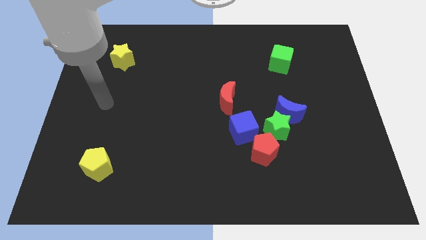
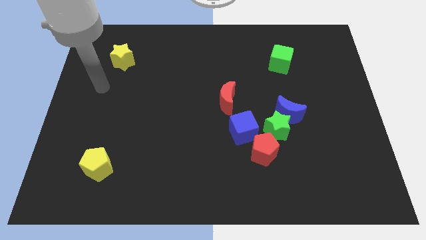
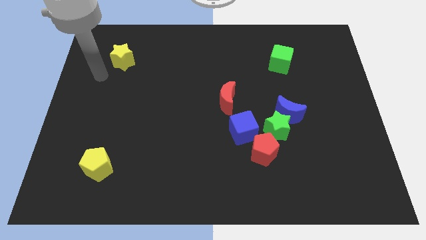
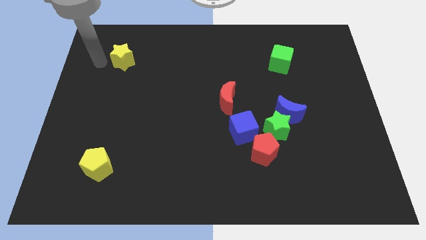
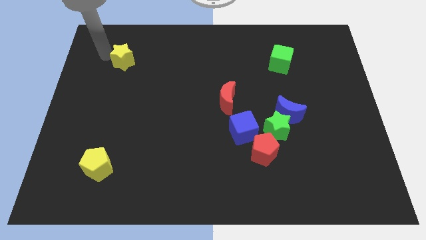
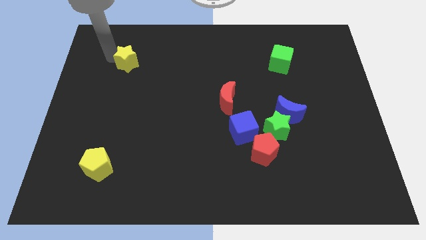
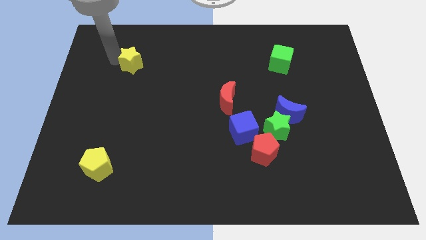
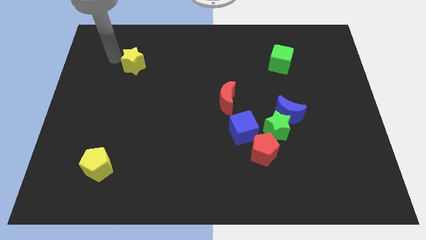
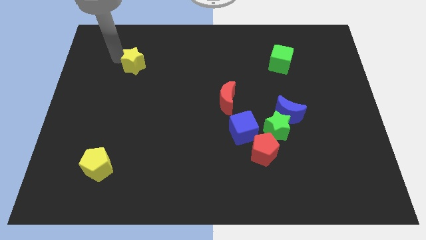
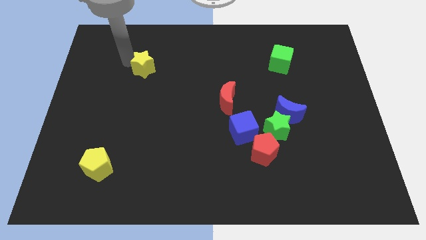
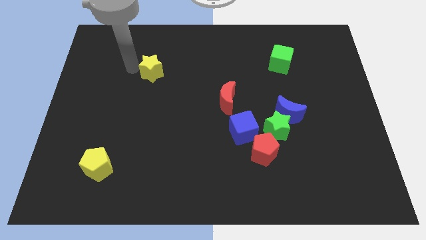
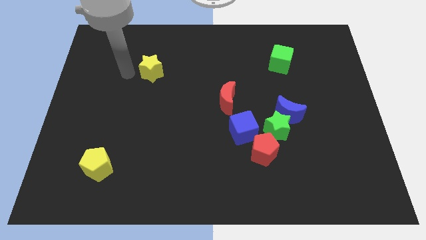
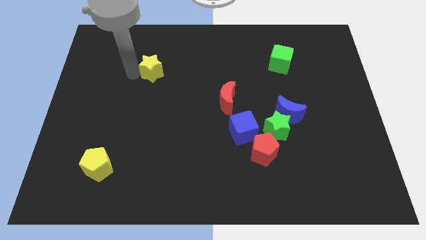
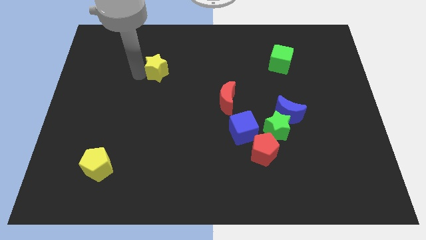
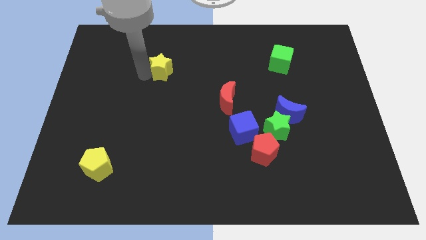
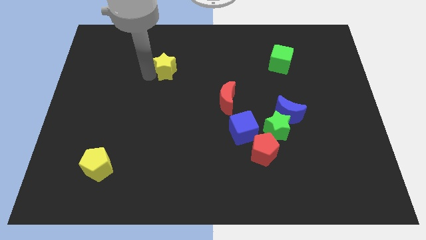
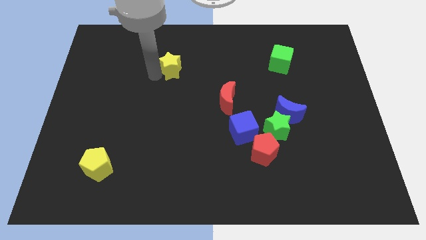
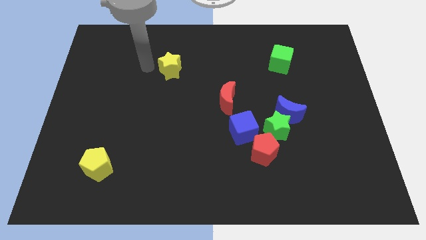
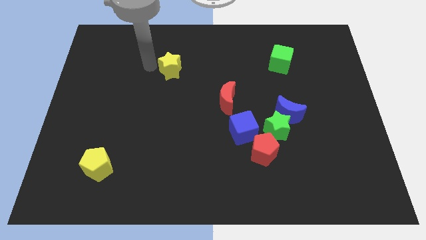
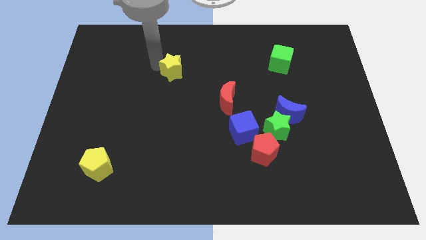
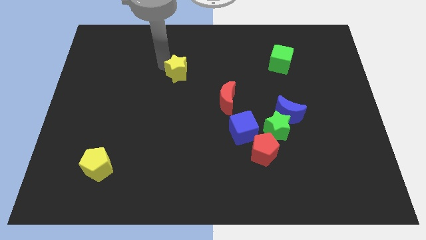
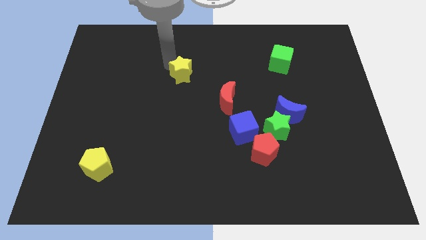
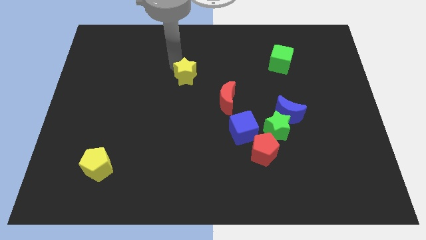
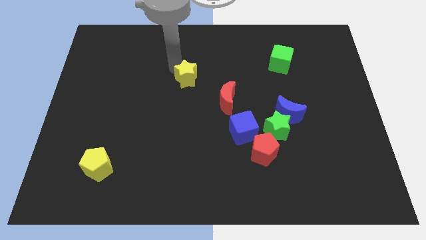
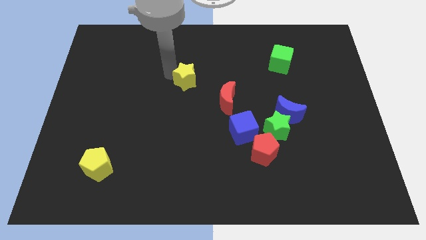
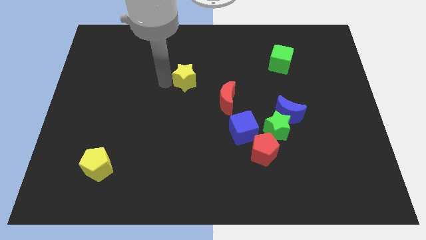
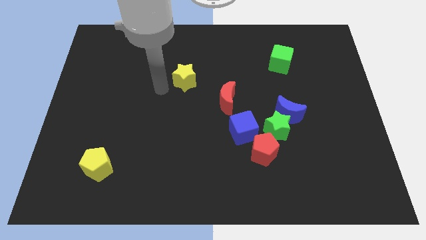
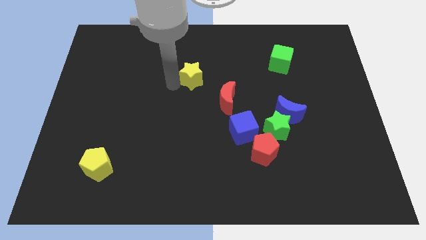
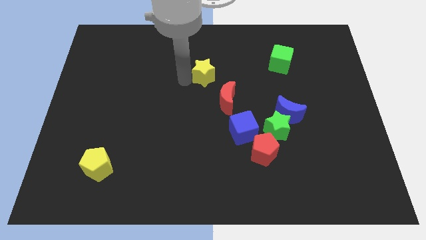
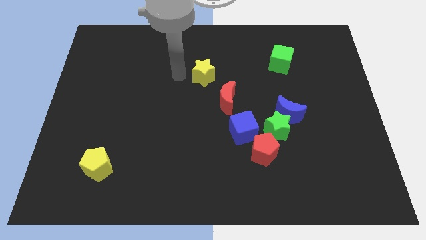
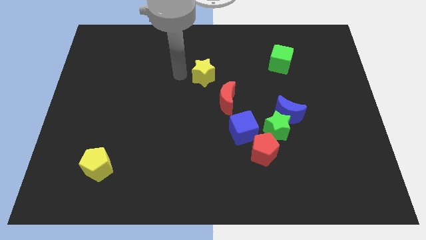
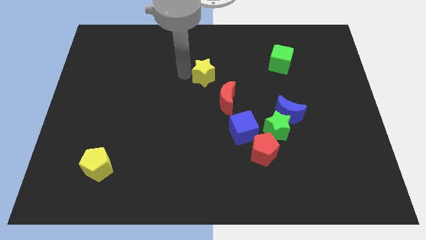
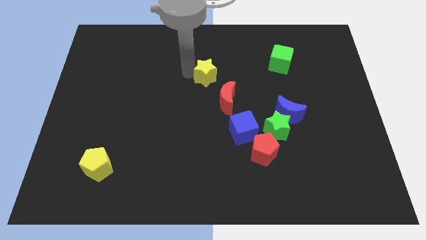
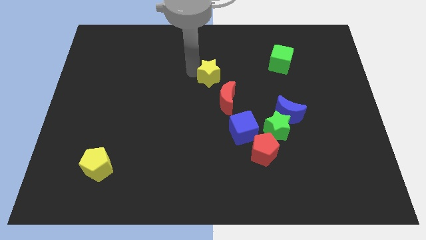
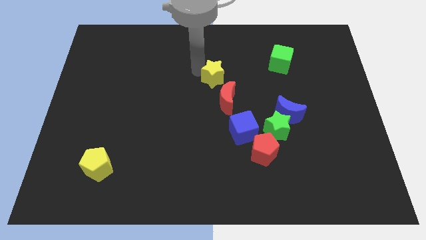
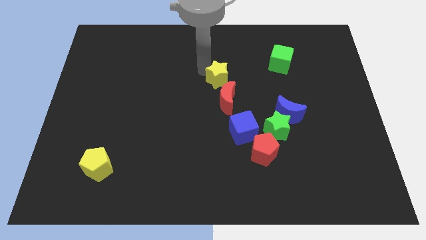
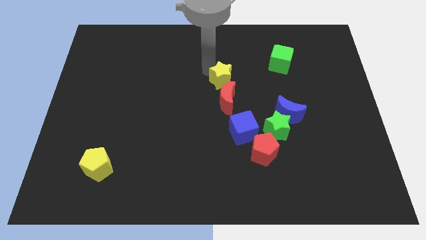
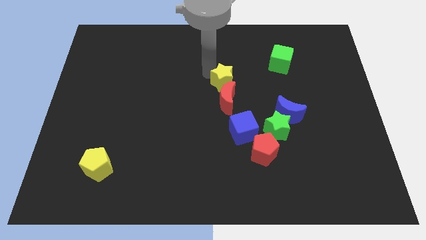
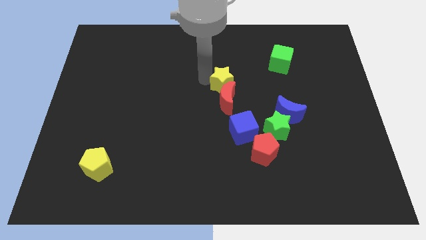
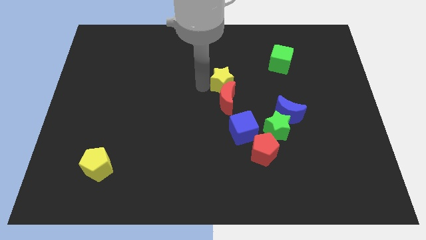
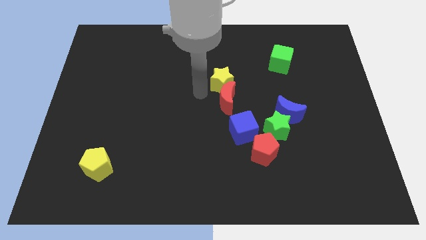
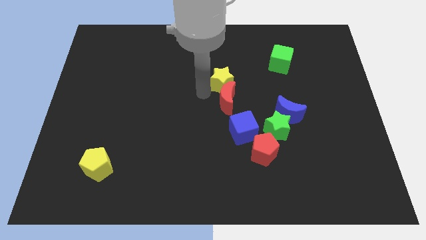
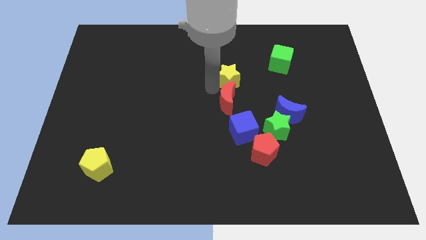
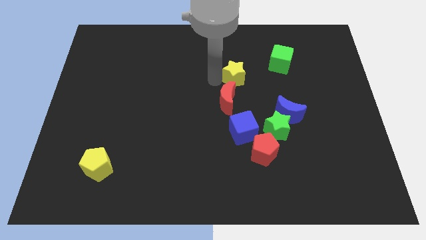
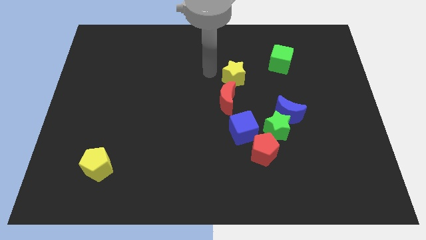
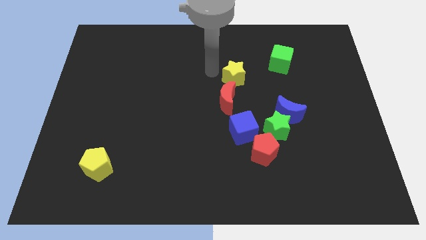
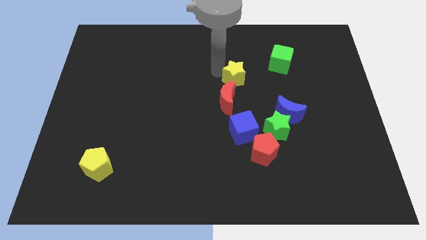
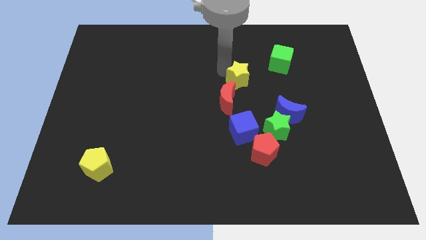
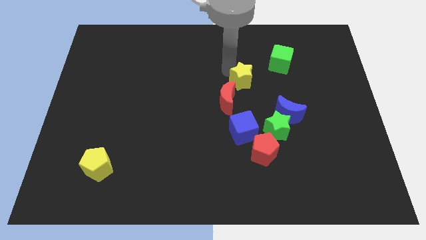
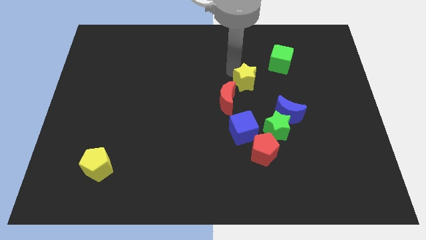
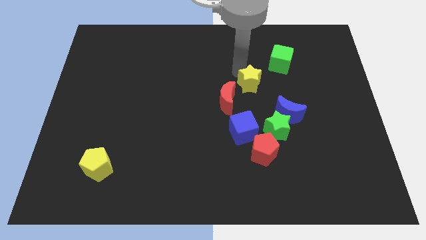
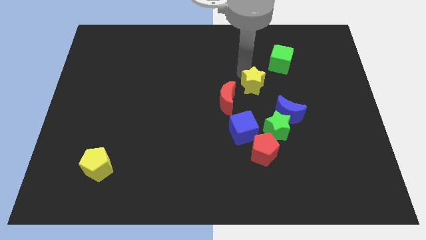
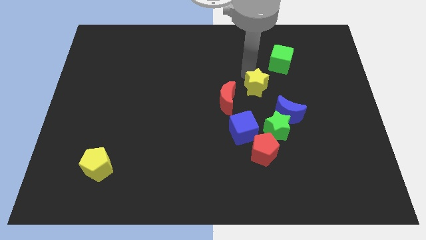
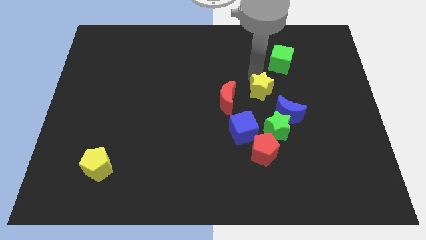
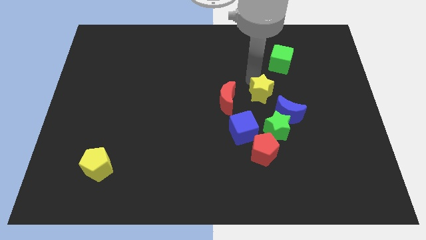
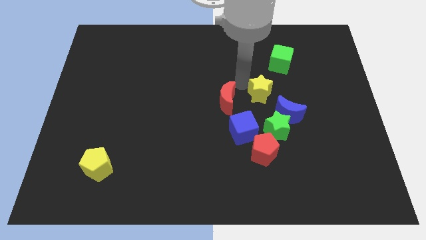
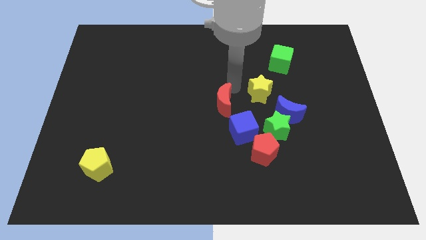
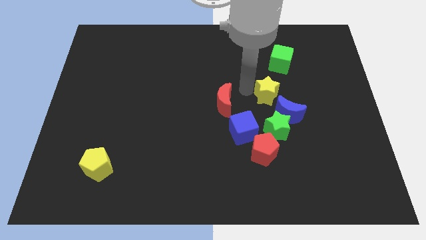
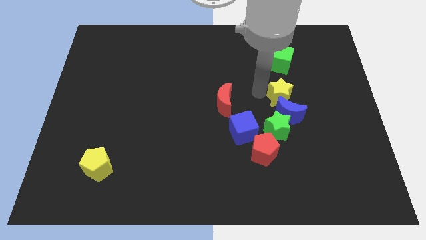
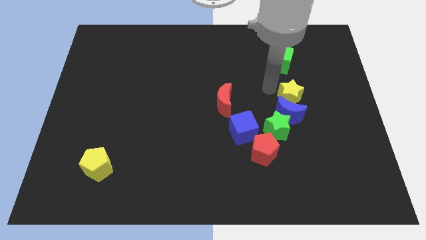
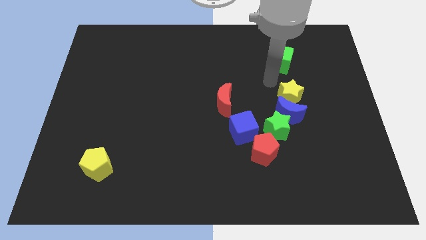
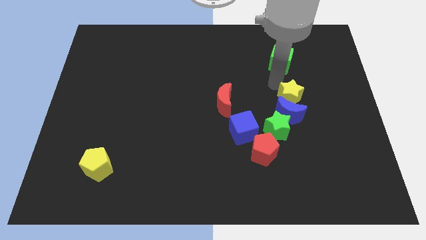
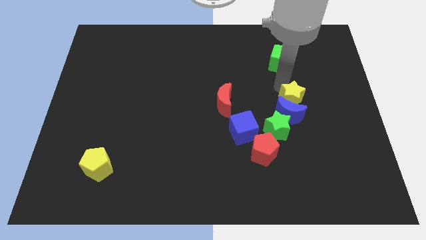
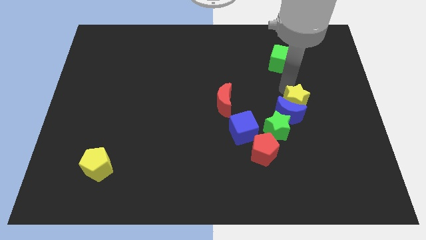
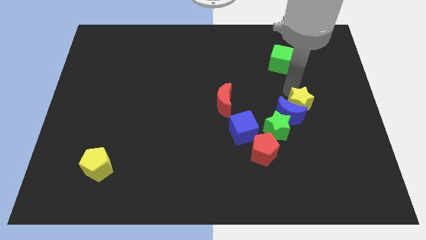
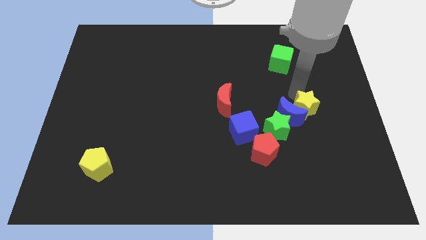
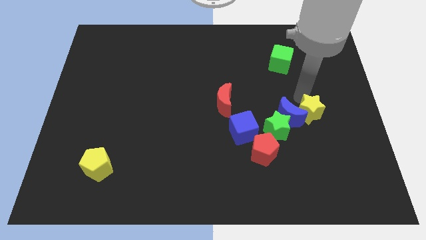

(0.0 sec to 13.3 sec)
slide the yellow star just right of the green star

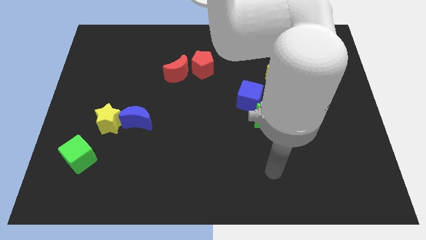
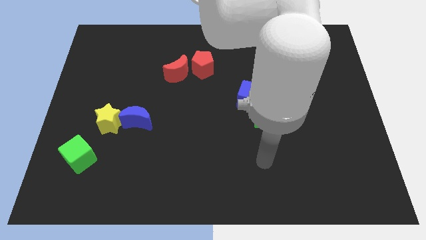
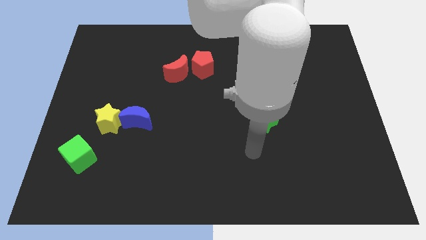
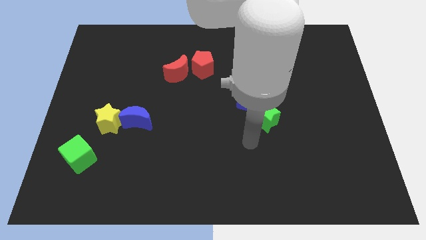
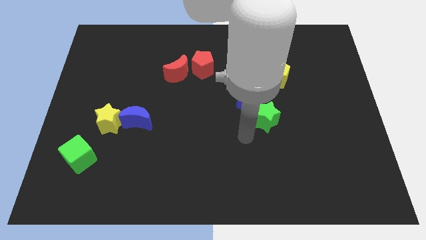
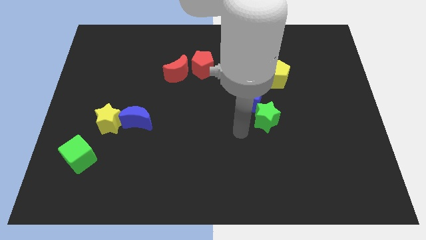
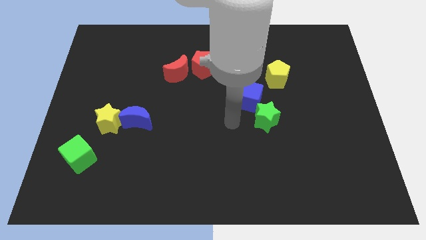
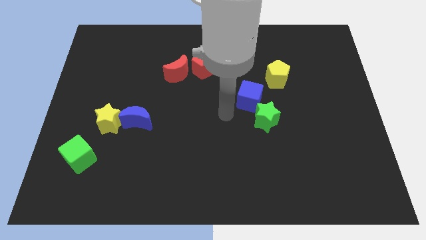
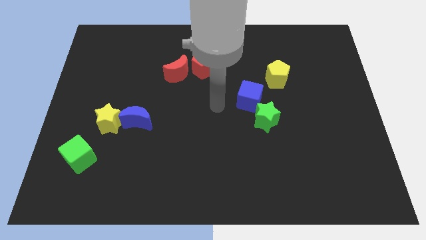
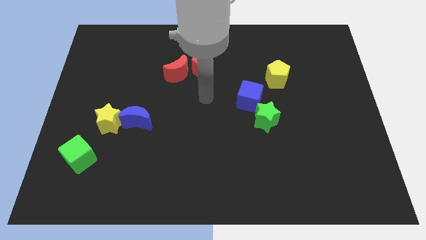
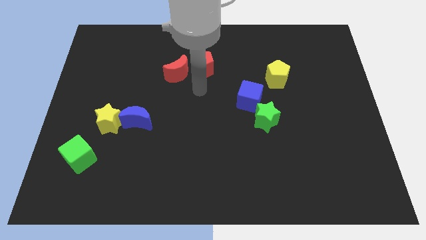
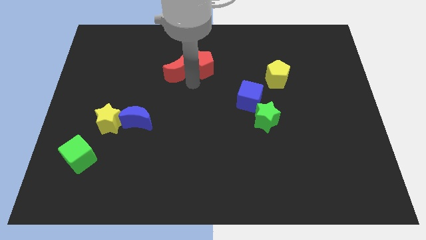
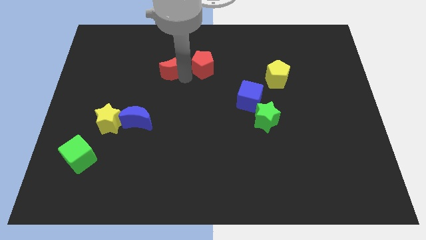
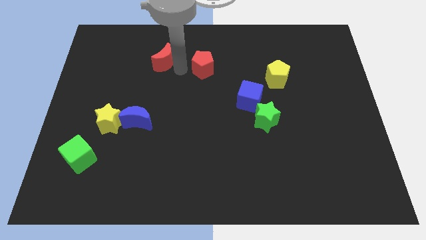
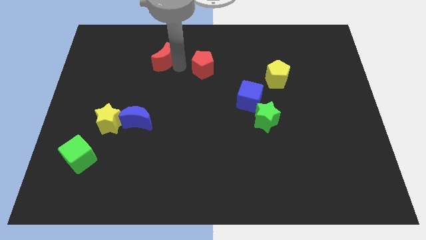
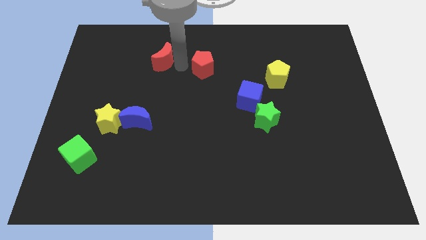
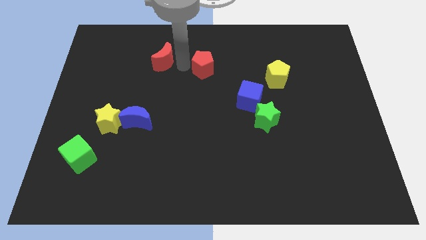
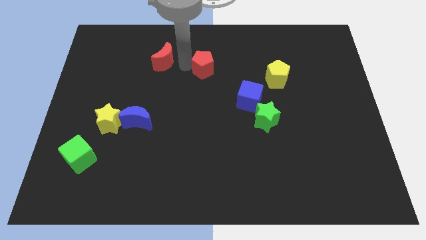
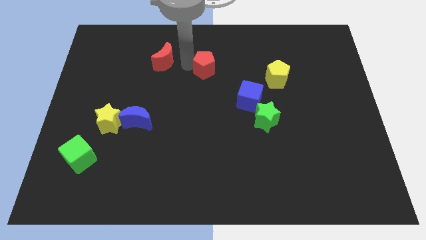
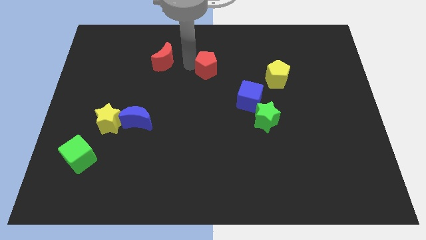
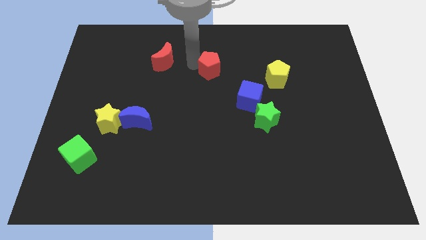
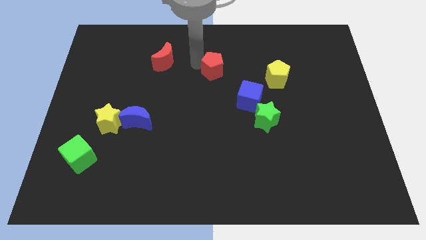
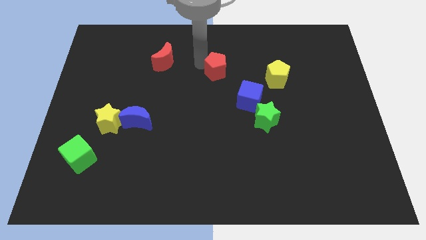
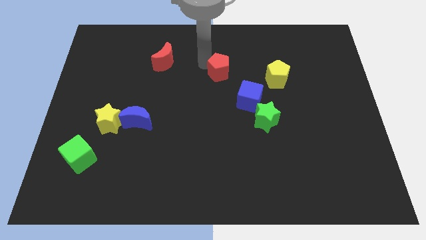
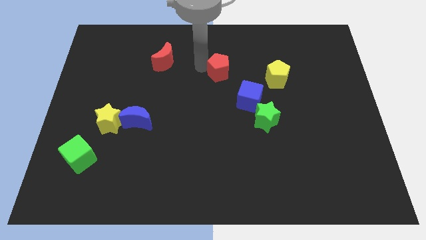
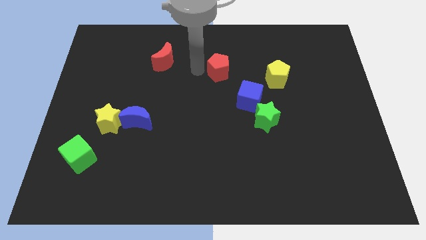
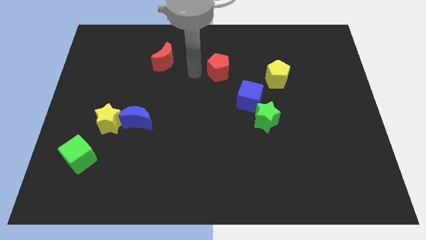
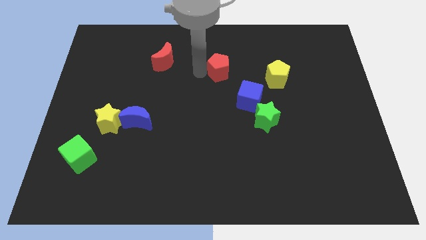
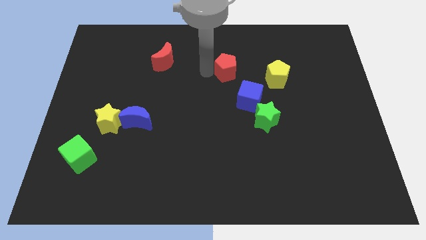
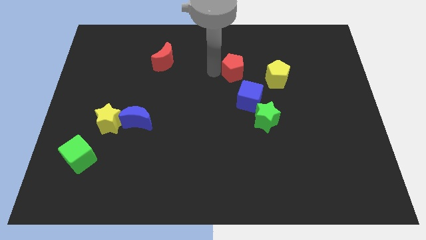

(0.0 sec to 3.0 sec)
move the red pentagon to the top side of the blue cube
